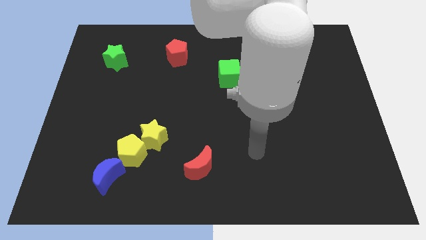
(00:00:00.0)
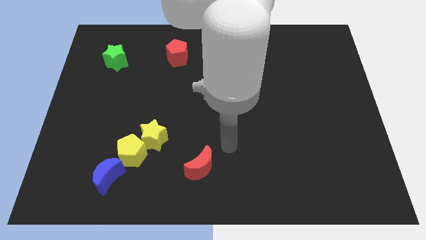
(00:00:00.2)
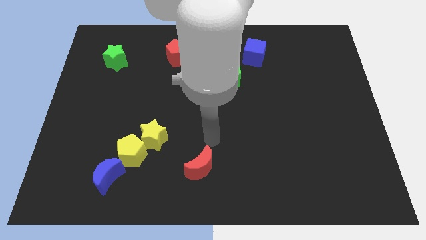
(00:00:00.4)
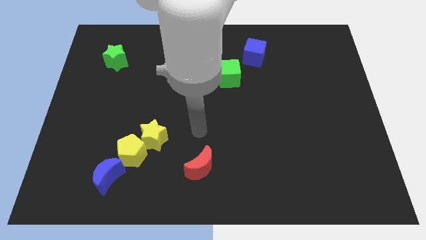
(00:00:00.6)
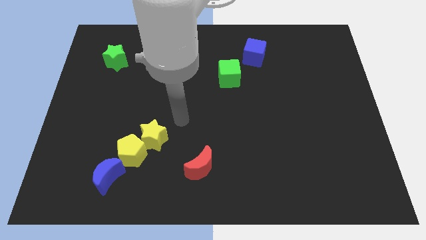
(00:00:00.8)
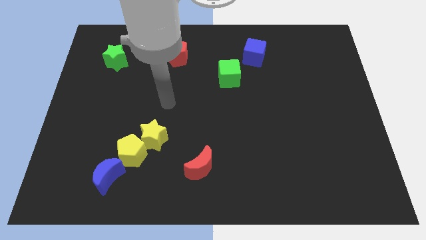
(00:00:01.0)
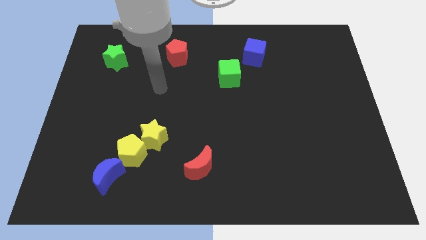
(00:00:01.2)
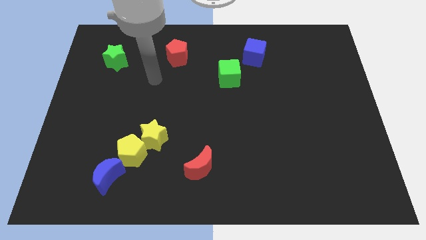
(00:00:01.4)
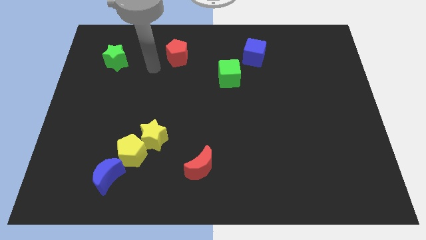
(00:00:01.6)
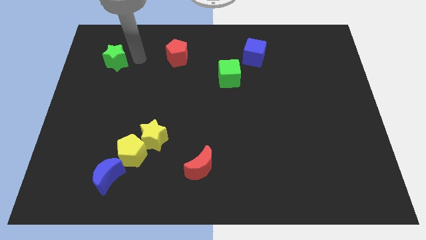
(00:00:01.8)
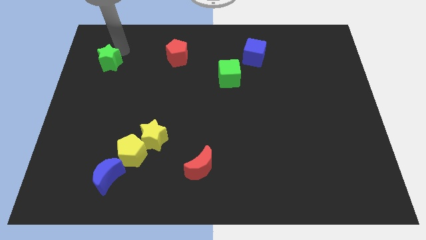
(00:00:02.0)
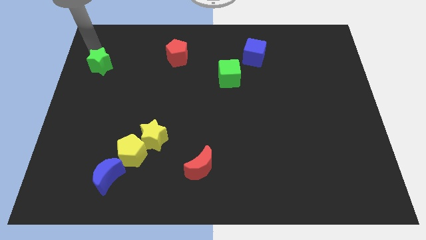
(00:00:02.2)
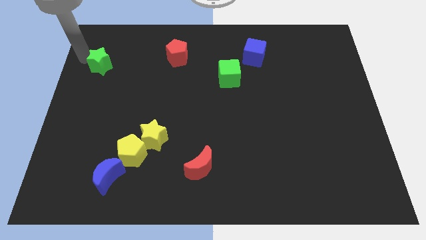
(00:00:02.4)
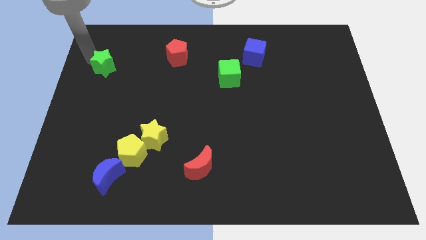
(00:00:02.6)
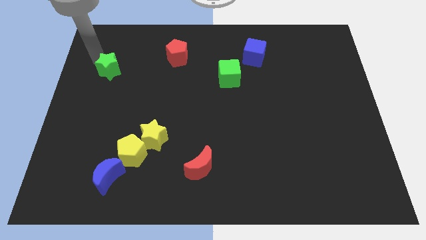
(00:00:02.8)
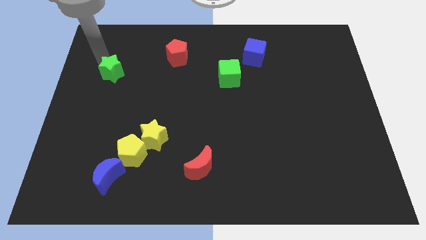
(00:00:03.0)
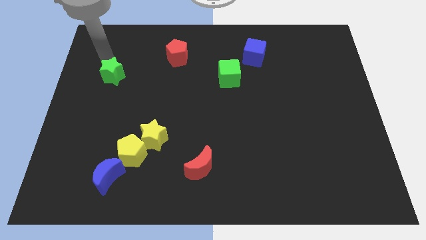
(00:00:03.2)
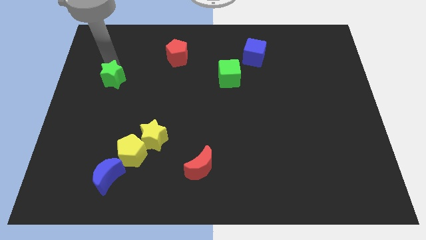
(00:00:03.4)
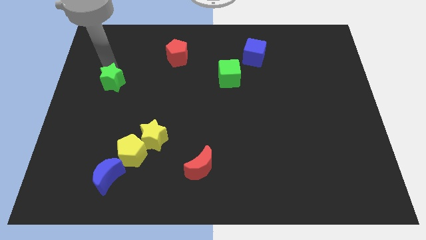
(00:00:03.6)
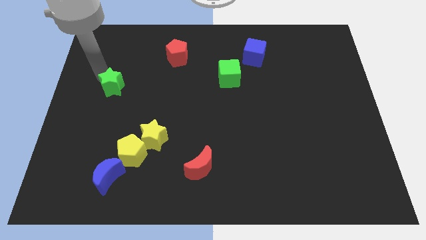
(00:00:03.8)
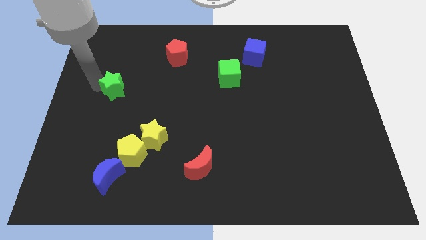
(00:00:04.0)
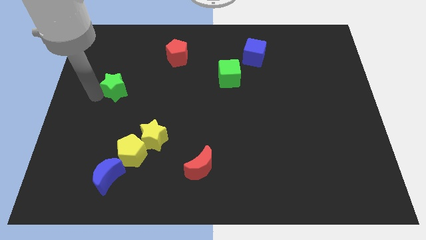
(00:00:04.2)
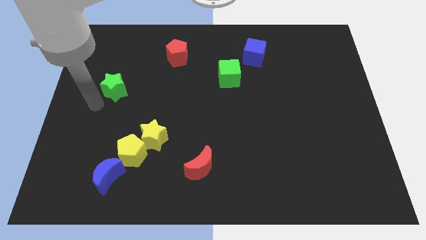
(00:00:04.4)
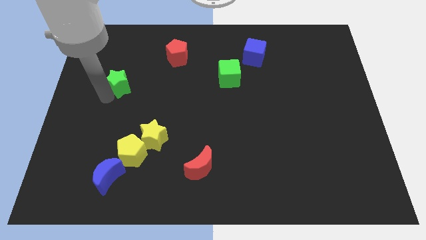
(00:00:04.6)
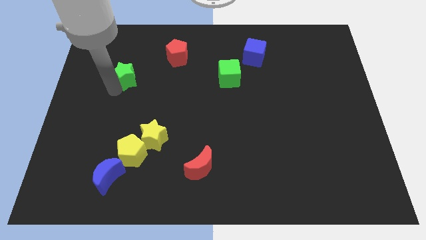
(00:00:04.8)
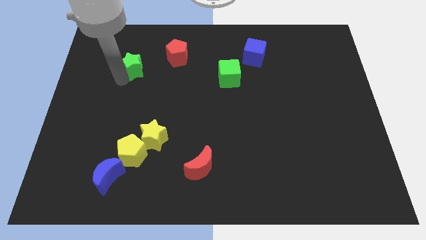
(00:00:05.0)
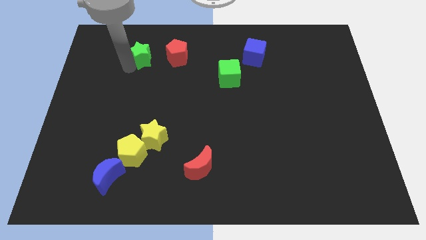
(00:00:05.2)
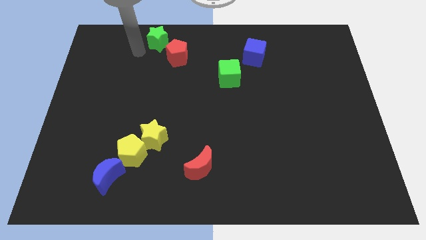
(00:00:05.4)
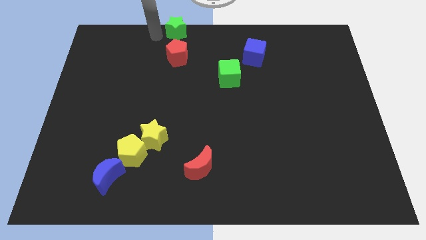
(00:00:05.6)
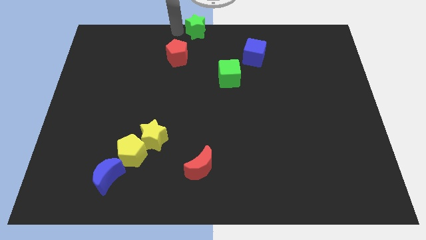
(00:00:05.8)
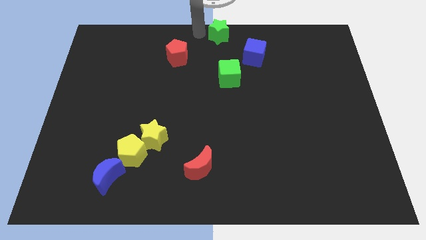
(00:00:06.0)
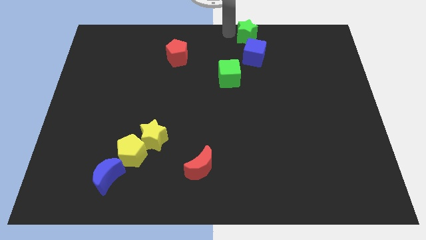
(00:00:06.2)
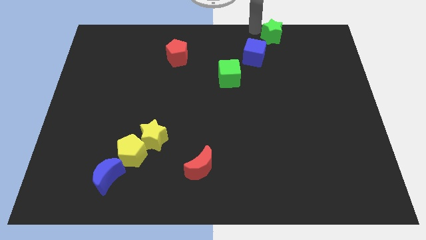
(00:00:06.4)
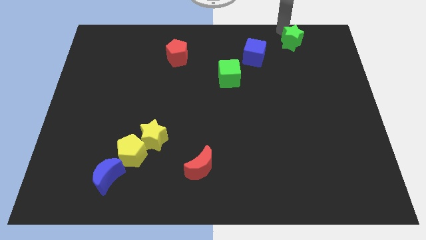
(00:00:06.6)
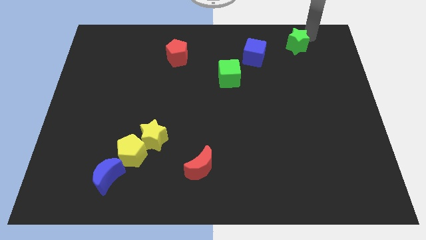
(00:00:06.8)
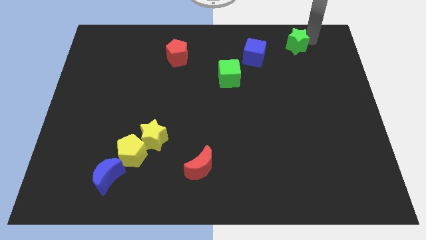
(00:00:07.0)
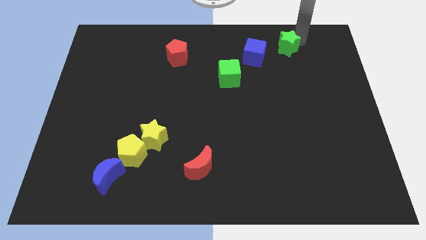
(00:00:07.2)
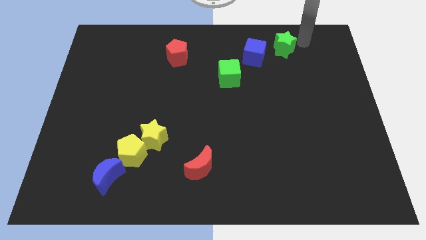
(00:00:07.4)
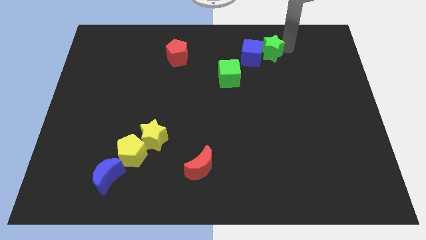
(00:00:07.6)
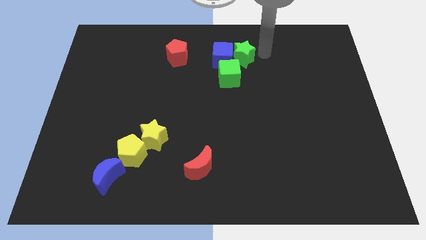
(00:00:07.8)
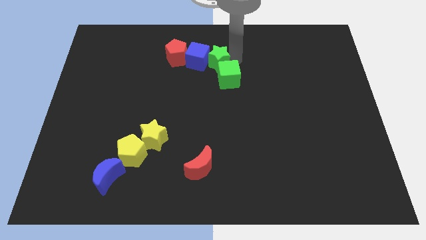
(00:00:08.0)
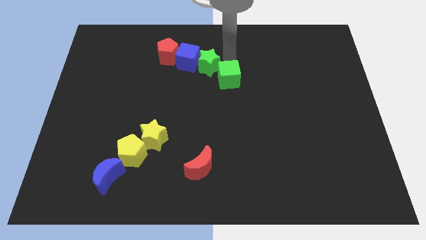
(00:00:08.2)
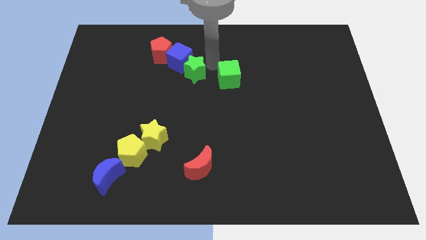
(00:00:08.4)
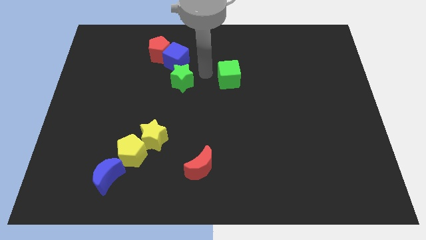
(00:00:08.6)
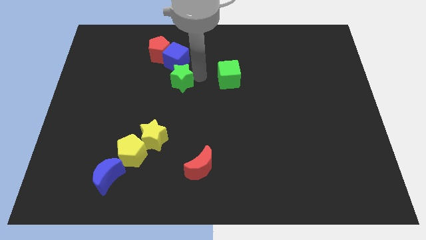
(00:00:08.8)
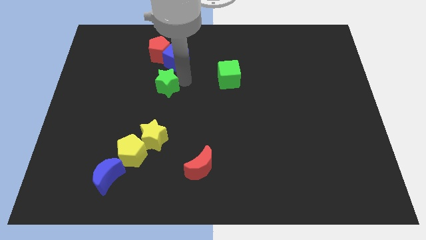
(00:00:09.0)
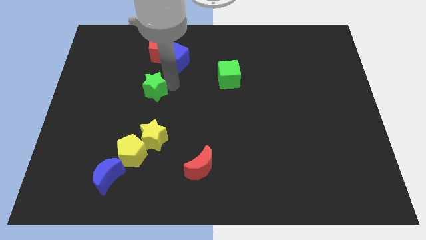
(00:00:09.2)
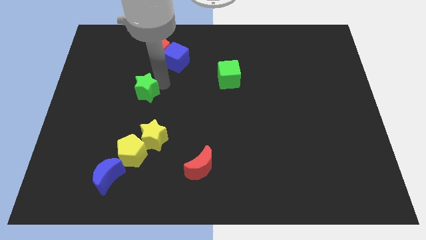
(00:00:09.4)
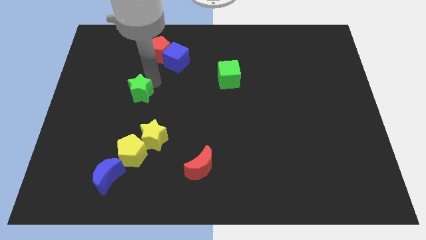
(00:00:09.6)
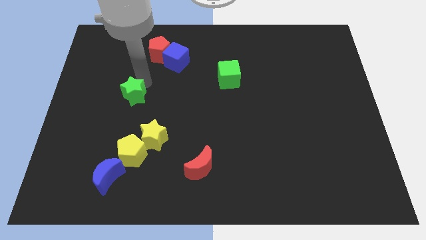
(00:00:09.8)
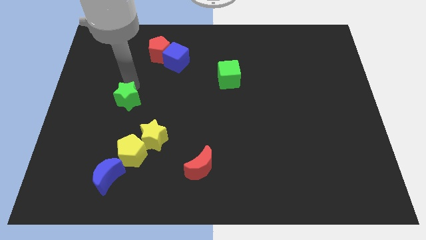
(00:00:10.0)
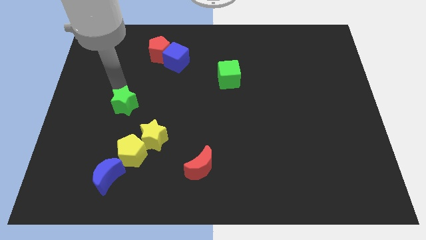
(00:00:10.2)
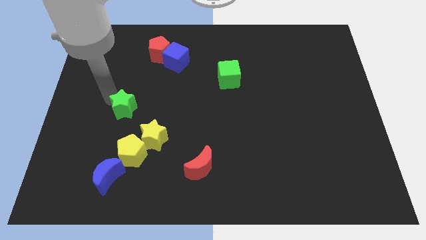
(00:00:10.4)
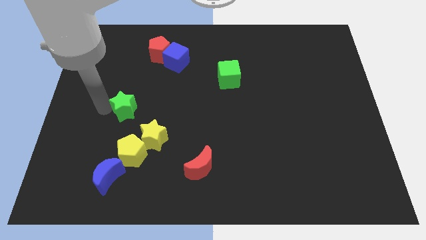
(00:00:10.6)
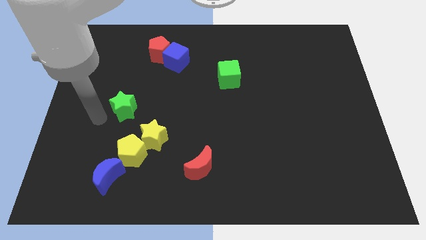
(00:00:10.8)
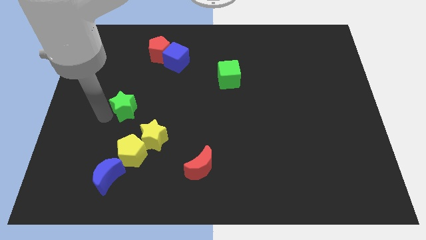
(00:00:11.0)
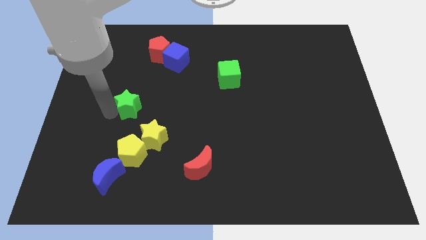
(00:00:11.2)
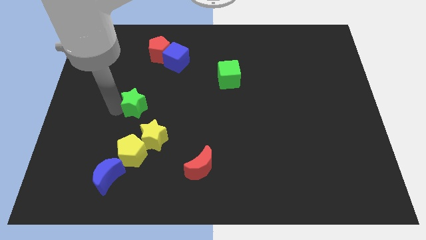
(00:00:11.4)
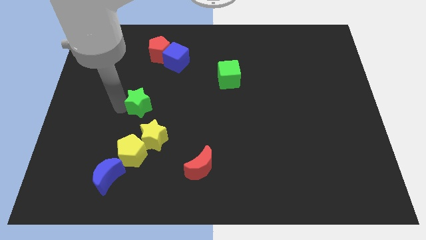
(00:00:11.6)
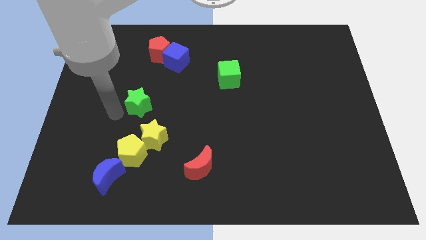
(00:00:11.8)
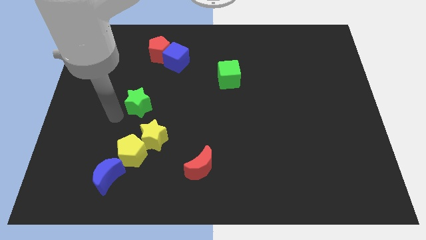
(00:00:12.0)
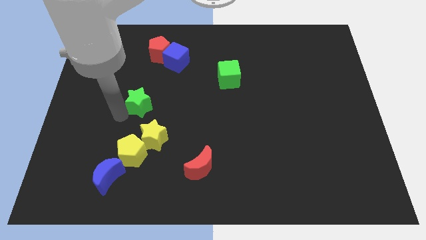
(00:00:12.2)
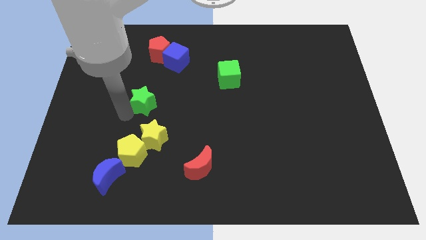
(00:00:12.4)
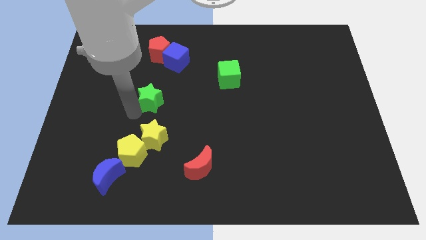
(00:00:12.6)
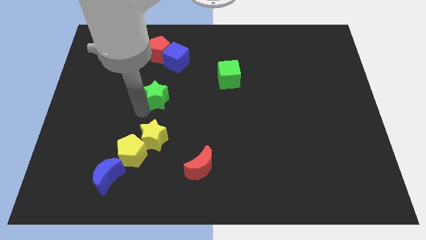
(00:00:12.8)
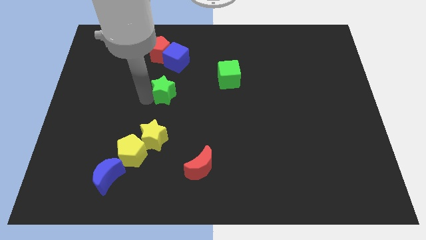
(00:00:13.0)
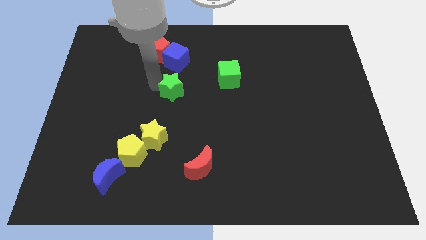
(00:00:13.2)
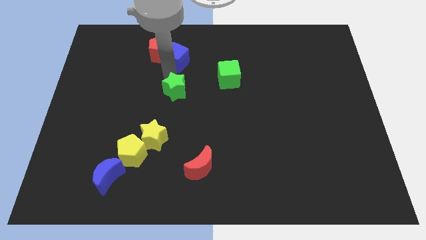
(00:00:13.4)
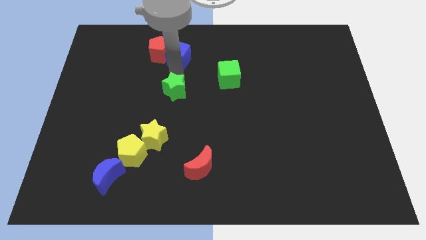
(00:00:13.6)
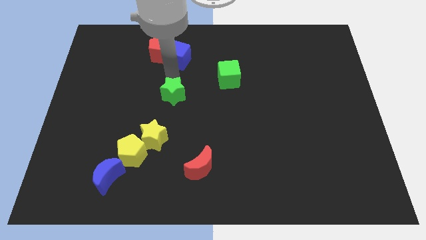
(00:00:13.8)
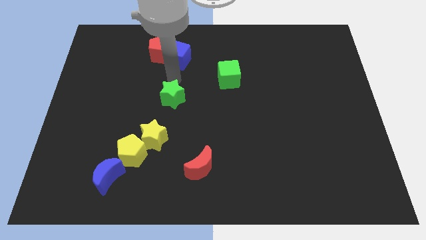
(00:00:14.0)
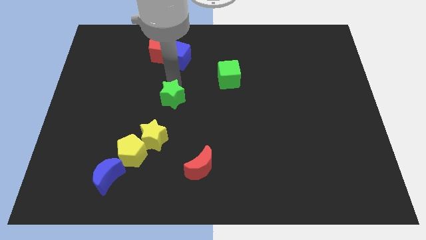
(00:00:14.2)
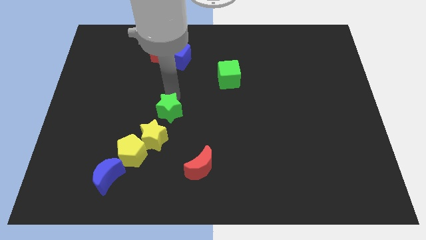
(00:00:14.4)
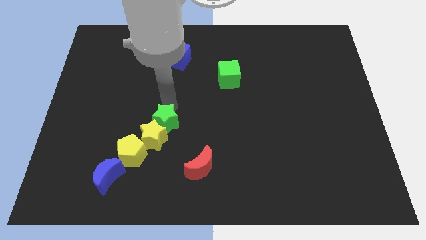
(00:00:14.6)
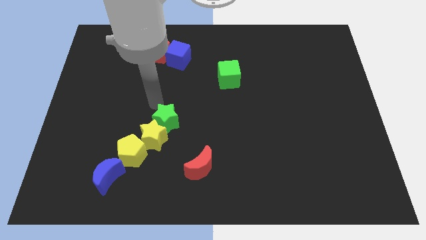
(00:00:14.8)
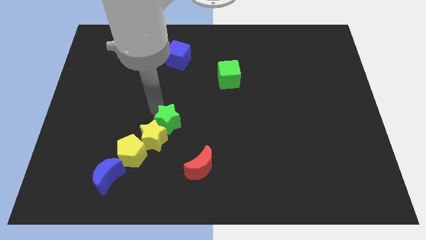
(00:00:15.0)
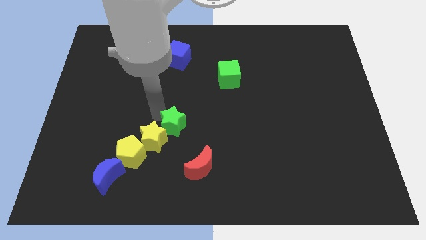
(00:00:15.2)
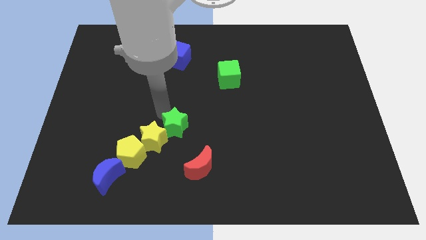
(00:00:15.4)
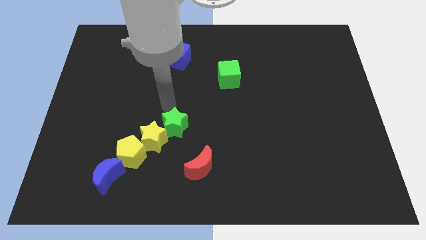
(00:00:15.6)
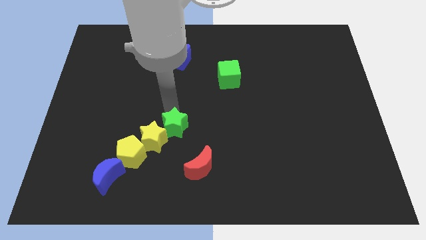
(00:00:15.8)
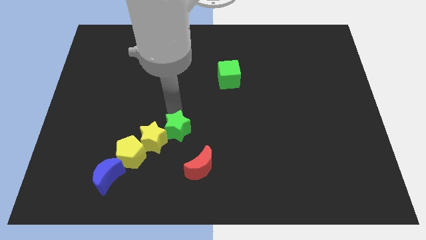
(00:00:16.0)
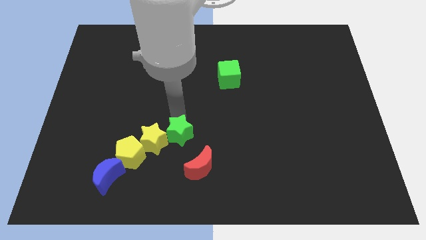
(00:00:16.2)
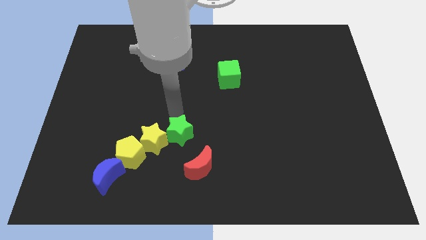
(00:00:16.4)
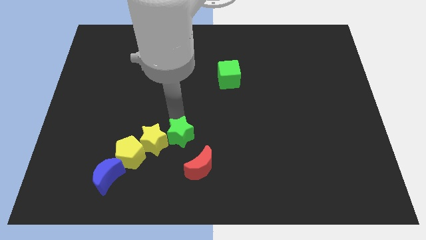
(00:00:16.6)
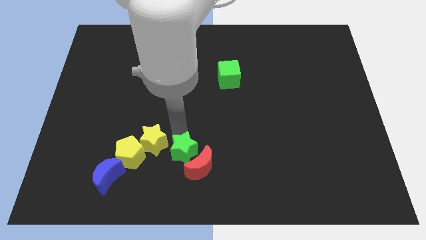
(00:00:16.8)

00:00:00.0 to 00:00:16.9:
push the green star towards the red moon
